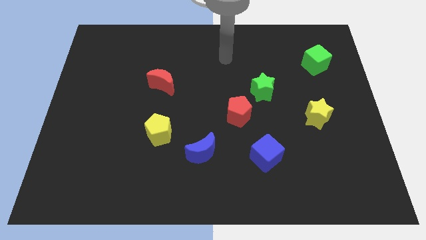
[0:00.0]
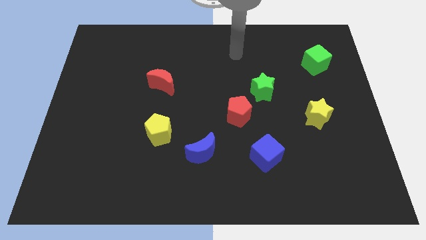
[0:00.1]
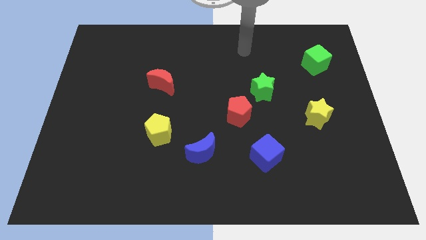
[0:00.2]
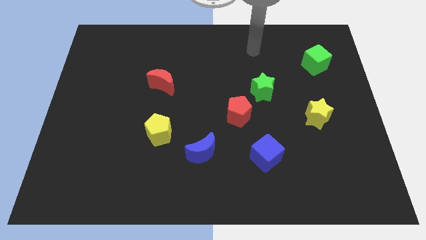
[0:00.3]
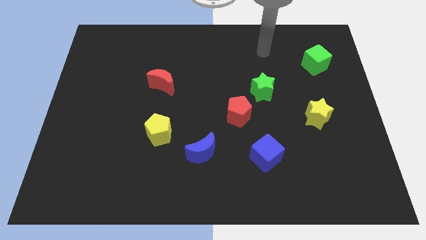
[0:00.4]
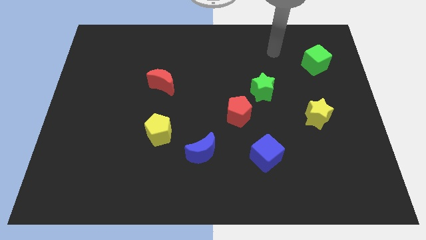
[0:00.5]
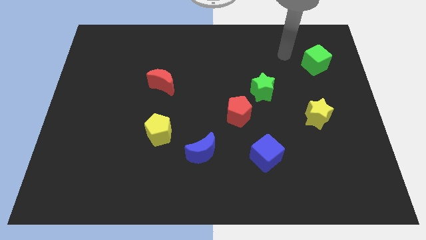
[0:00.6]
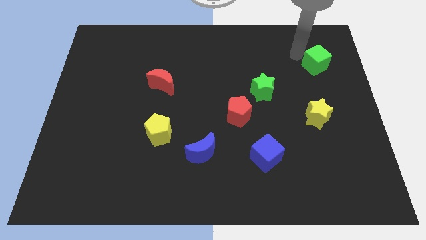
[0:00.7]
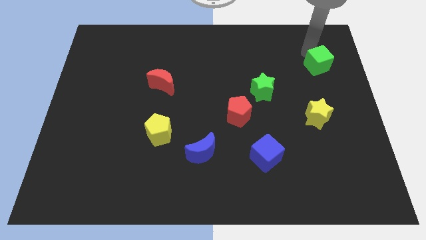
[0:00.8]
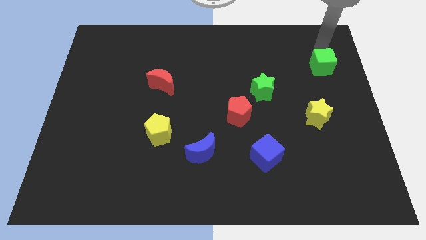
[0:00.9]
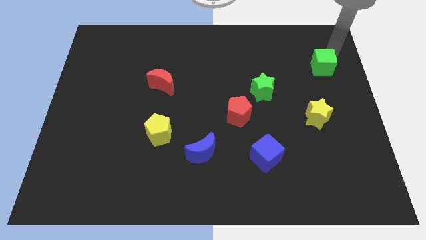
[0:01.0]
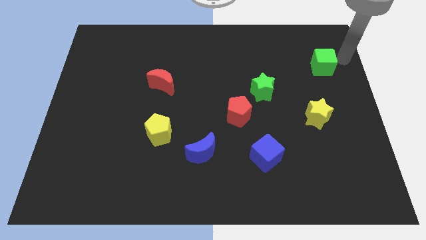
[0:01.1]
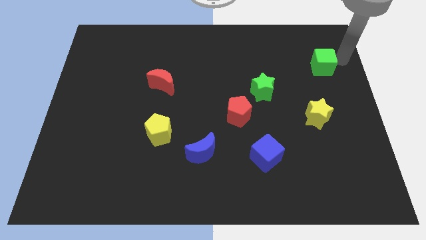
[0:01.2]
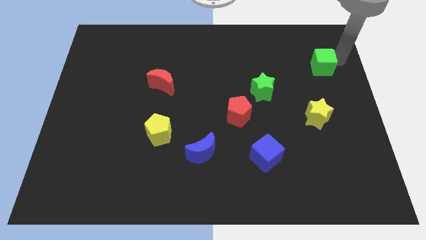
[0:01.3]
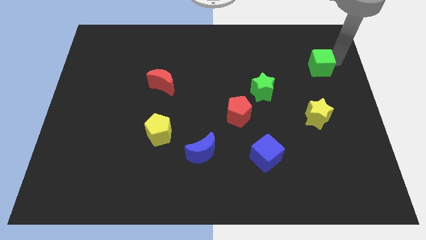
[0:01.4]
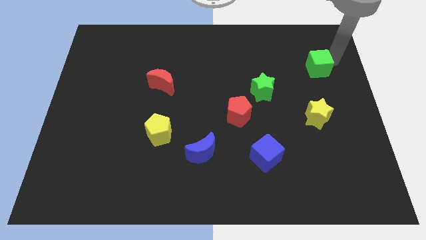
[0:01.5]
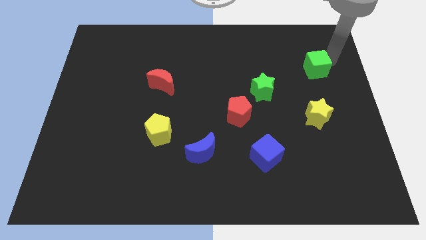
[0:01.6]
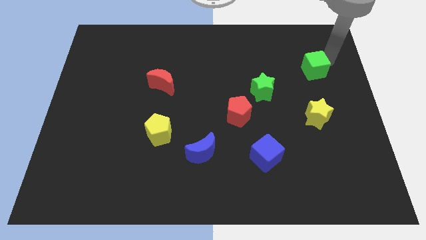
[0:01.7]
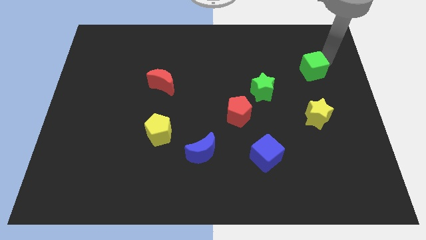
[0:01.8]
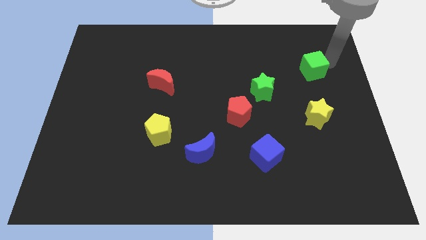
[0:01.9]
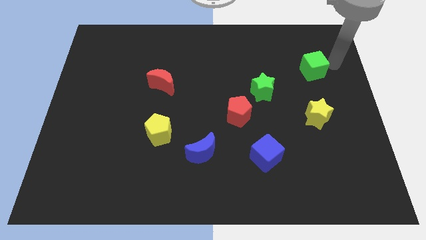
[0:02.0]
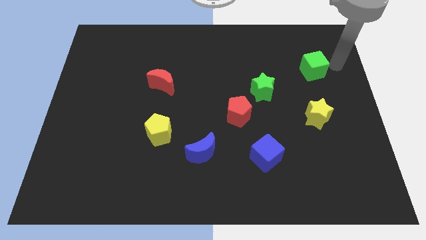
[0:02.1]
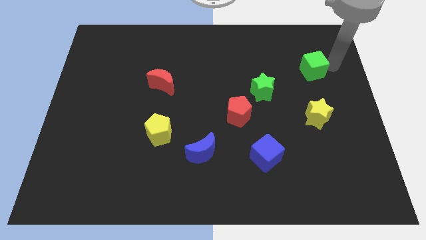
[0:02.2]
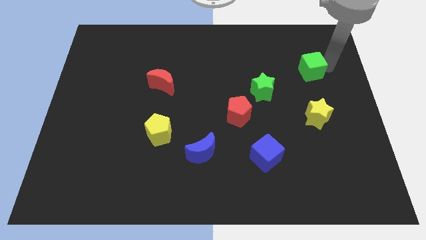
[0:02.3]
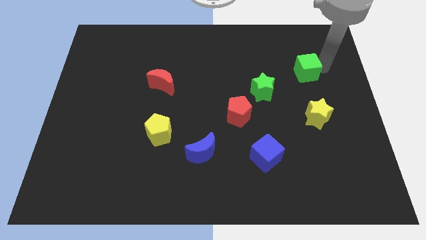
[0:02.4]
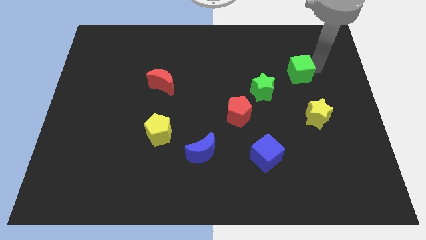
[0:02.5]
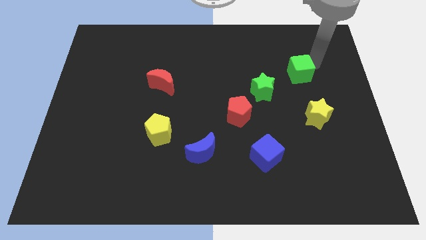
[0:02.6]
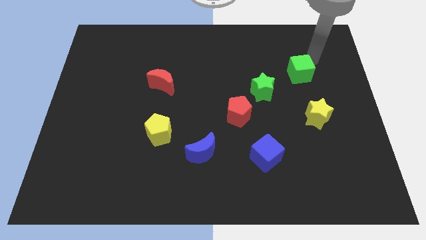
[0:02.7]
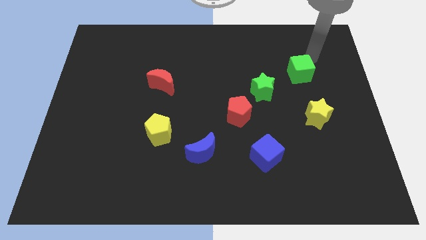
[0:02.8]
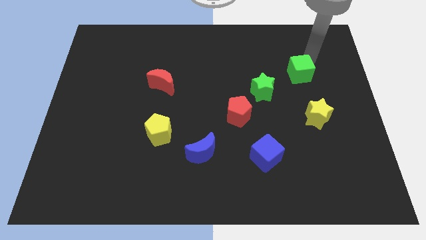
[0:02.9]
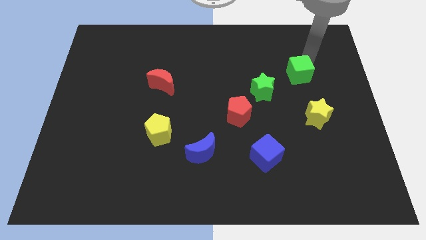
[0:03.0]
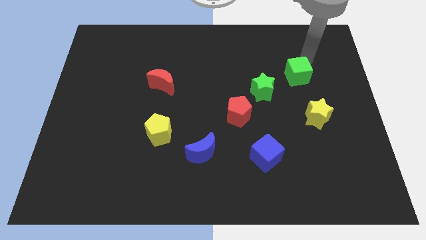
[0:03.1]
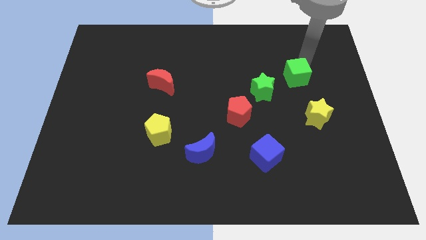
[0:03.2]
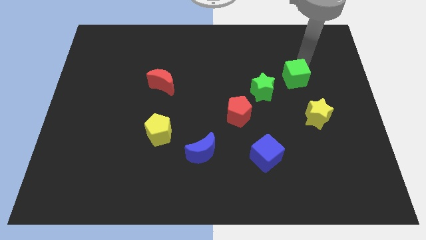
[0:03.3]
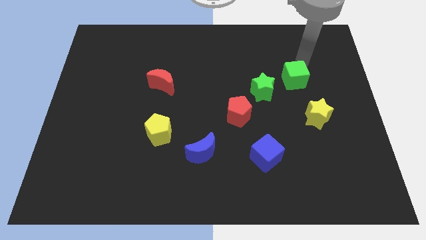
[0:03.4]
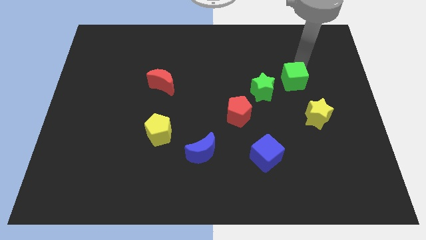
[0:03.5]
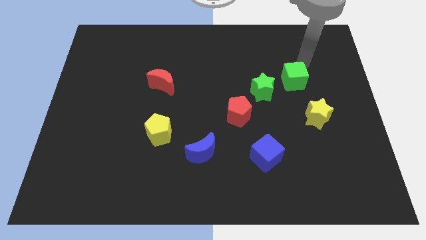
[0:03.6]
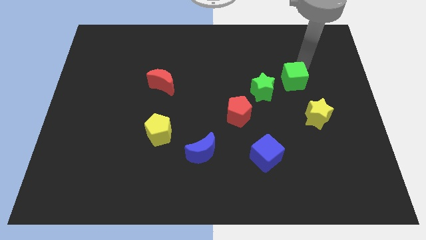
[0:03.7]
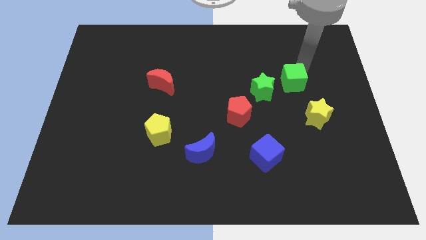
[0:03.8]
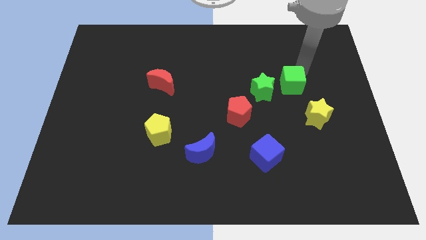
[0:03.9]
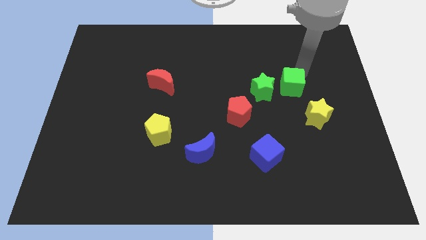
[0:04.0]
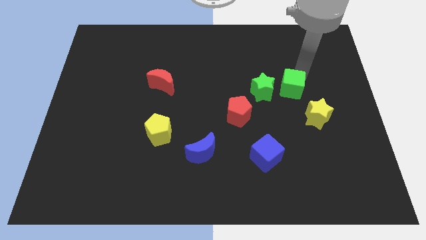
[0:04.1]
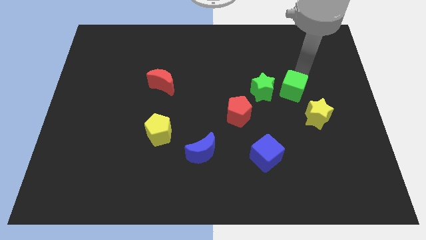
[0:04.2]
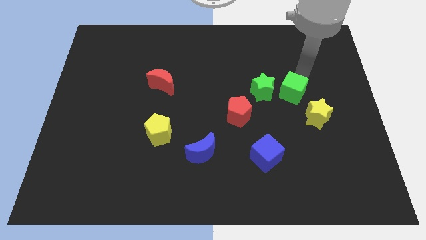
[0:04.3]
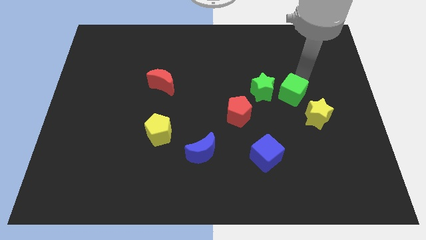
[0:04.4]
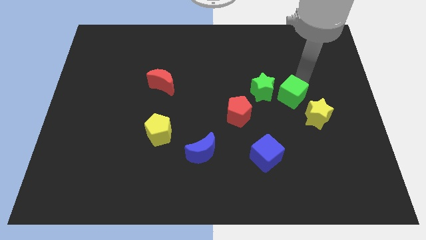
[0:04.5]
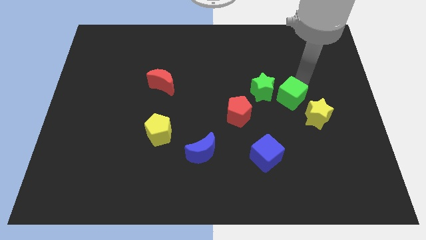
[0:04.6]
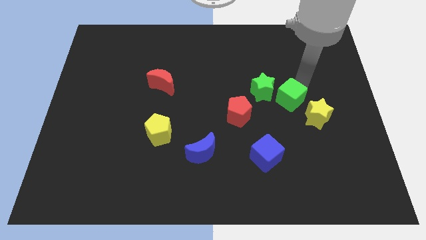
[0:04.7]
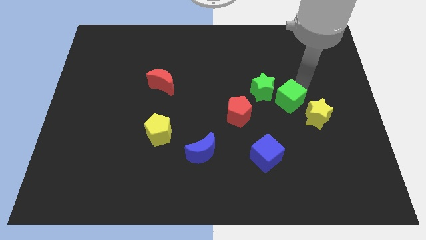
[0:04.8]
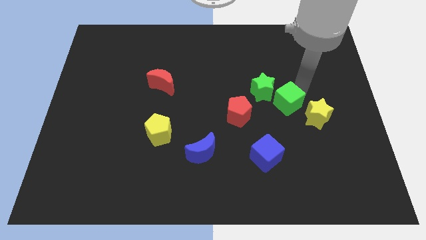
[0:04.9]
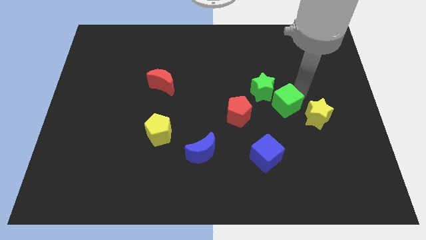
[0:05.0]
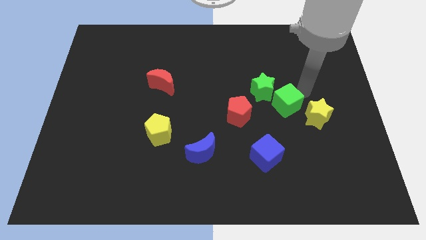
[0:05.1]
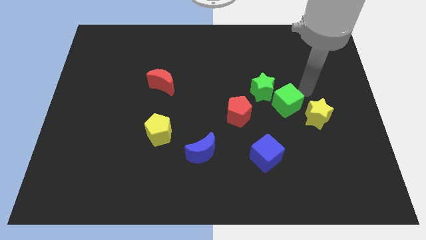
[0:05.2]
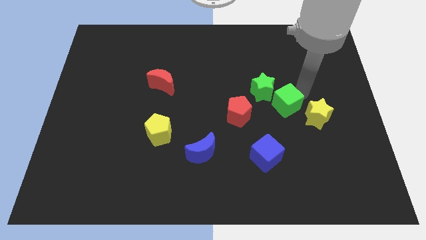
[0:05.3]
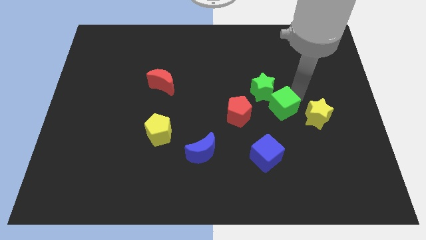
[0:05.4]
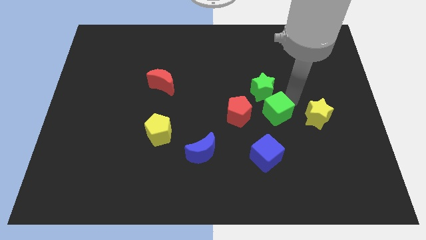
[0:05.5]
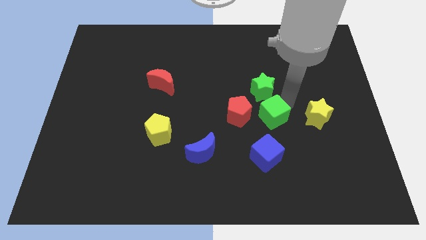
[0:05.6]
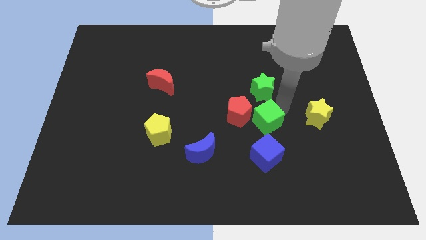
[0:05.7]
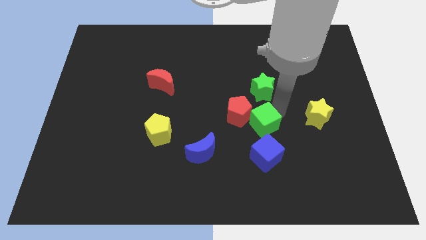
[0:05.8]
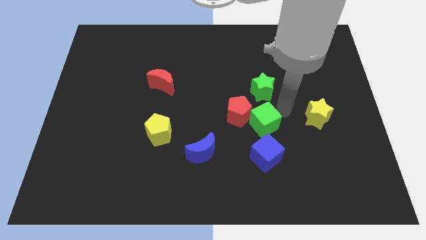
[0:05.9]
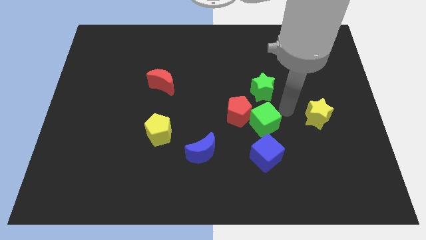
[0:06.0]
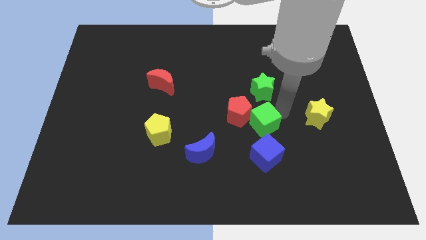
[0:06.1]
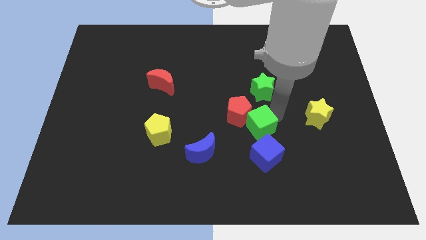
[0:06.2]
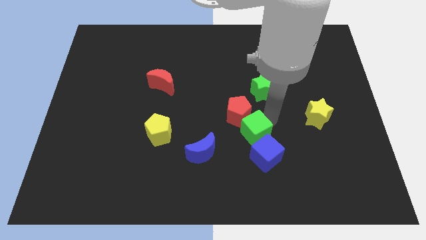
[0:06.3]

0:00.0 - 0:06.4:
move the green cube to the top left of the blue cube

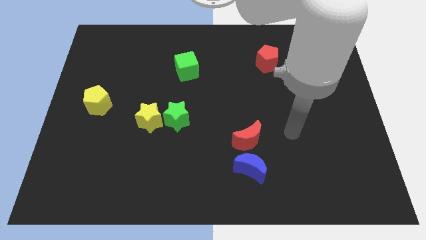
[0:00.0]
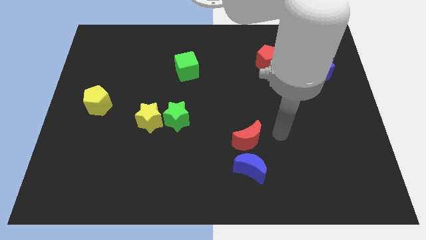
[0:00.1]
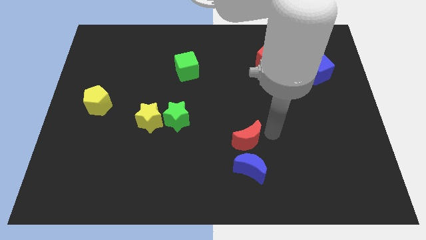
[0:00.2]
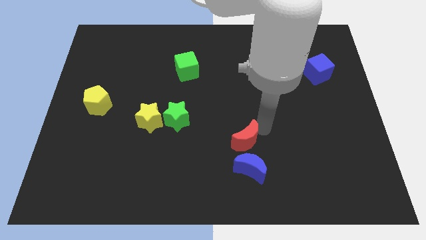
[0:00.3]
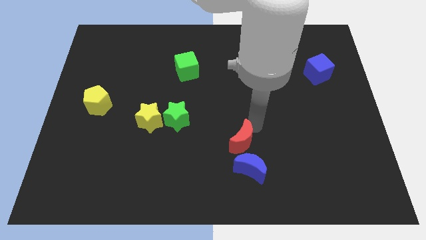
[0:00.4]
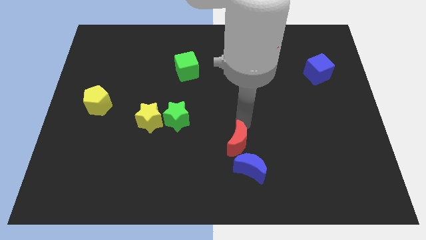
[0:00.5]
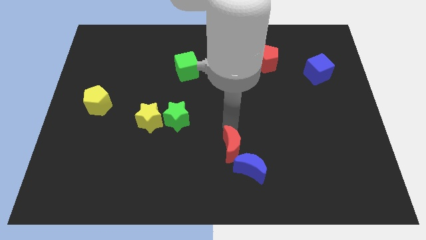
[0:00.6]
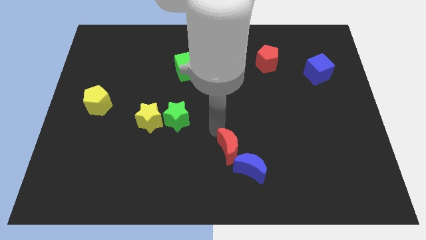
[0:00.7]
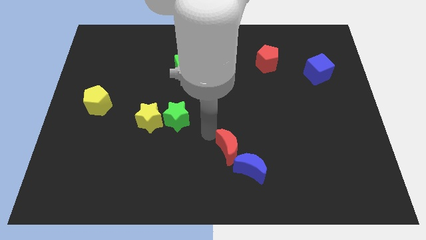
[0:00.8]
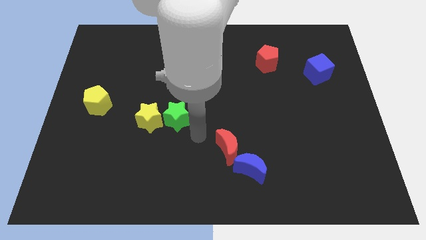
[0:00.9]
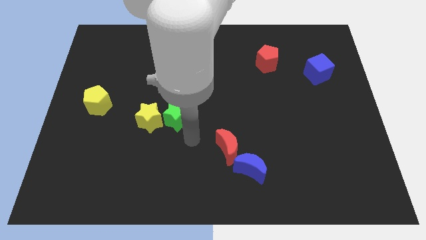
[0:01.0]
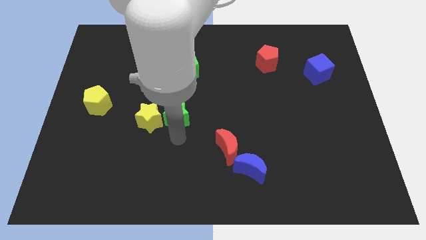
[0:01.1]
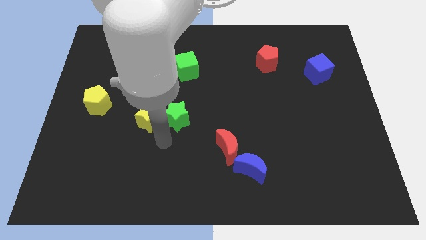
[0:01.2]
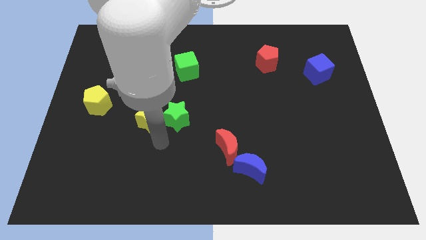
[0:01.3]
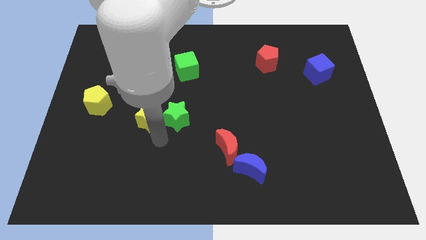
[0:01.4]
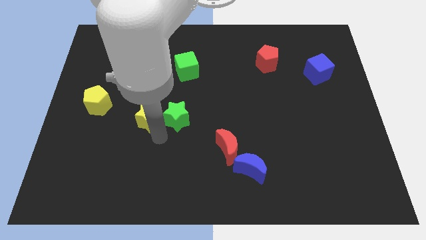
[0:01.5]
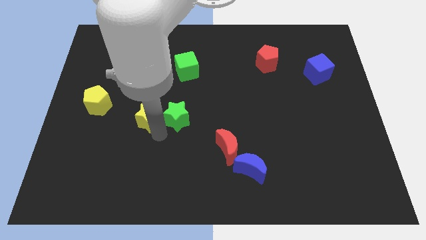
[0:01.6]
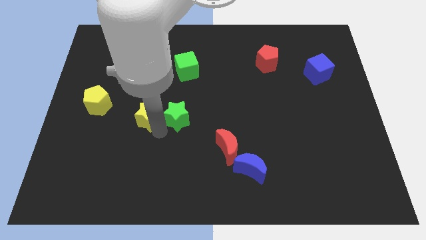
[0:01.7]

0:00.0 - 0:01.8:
push the yellow star to the right of the yellow pentagon
